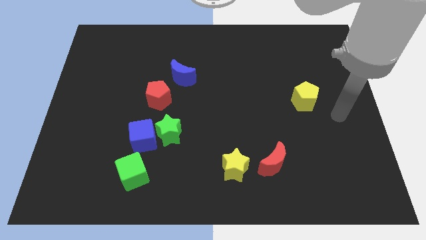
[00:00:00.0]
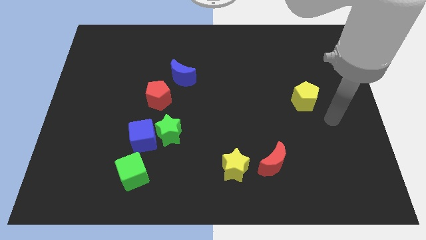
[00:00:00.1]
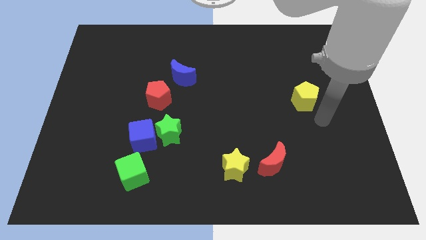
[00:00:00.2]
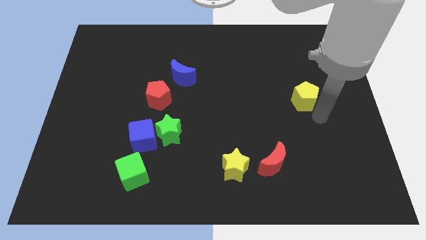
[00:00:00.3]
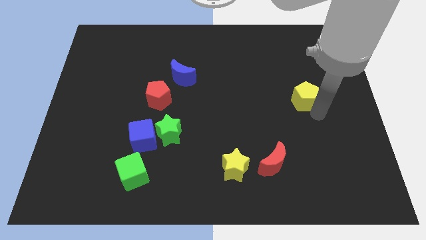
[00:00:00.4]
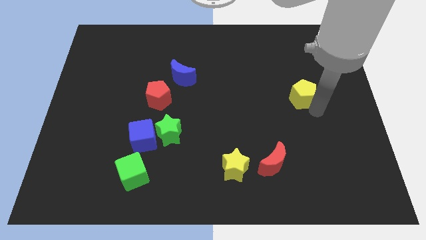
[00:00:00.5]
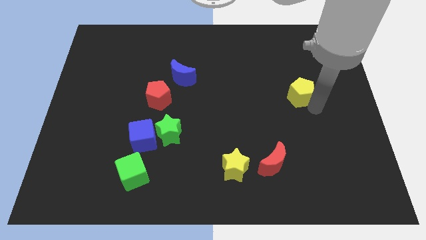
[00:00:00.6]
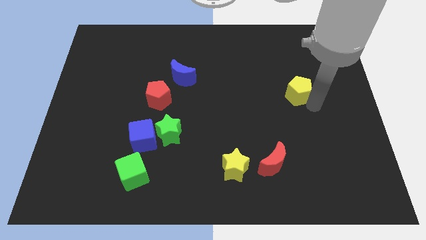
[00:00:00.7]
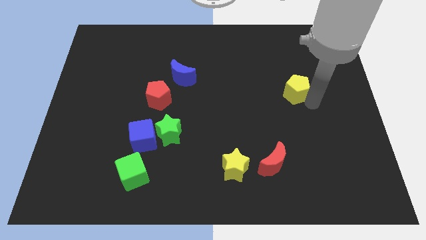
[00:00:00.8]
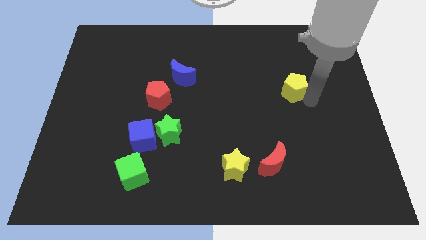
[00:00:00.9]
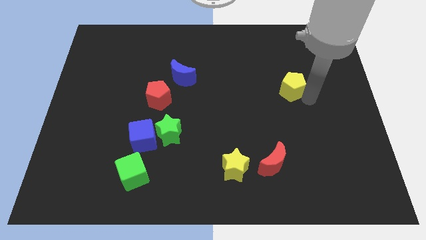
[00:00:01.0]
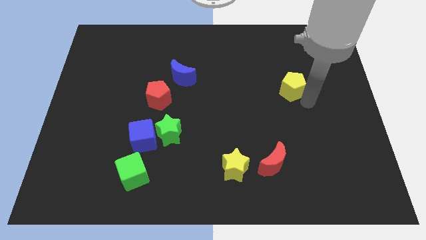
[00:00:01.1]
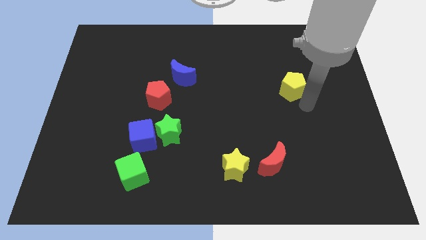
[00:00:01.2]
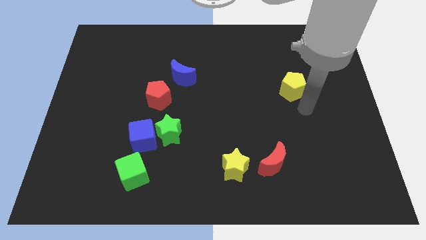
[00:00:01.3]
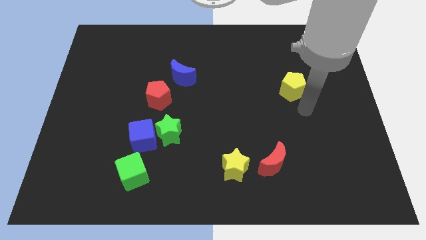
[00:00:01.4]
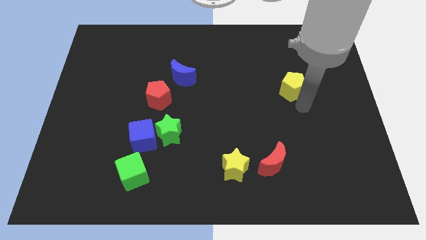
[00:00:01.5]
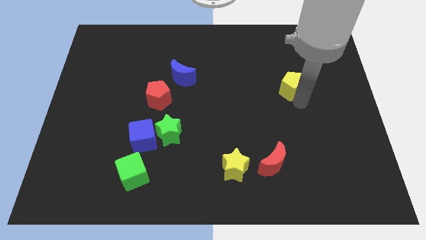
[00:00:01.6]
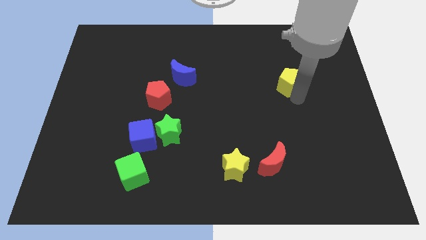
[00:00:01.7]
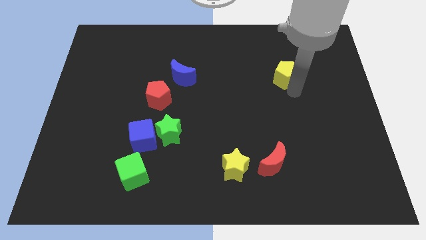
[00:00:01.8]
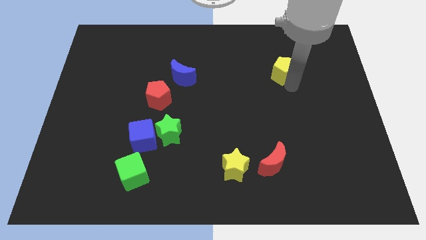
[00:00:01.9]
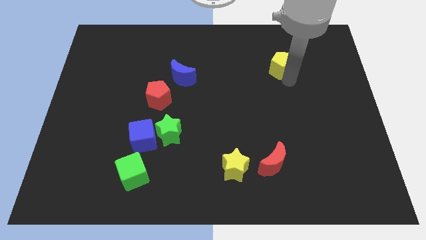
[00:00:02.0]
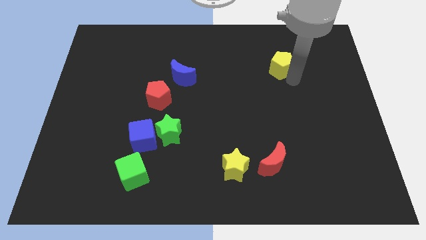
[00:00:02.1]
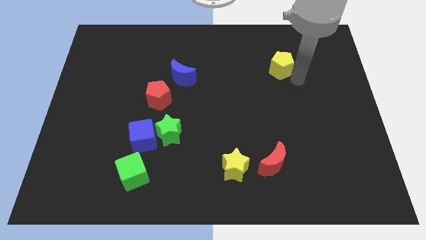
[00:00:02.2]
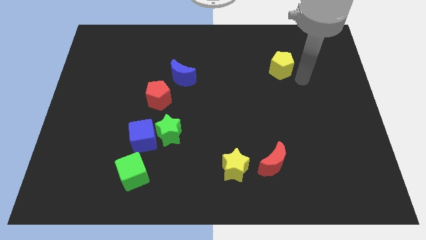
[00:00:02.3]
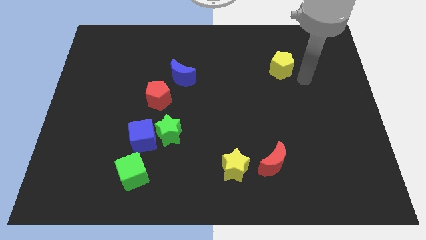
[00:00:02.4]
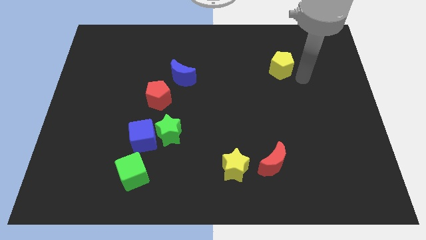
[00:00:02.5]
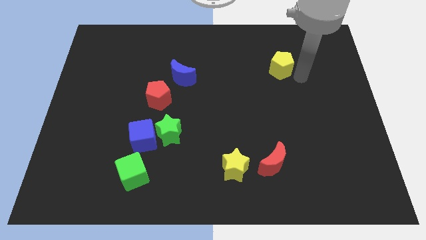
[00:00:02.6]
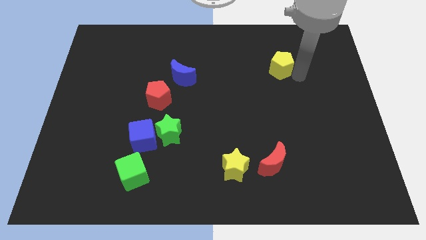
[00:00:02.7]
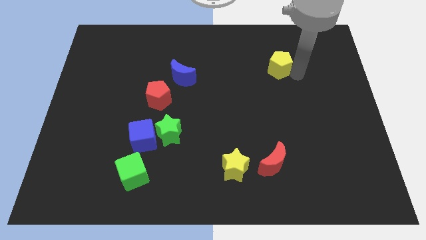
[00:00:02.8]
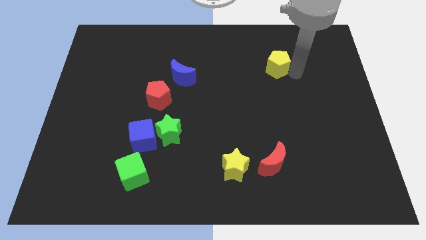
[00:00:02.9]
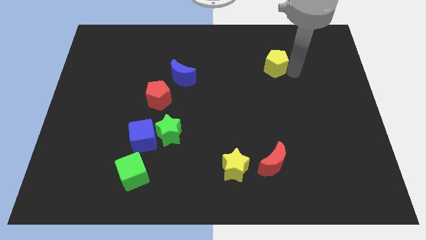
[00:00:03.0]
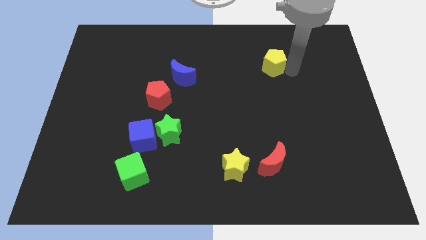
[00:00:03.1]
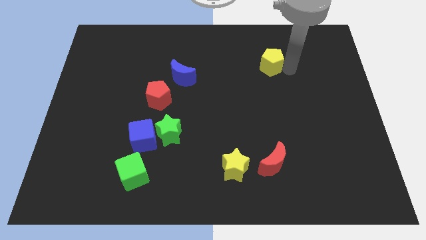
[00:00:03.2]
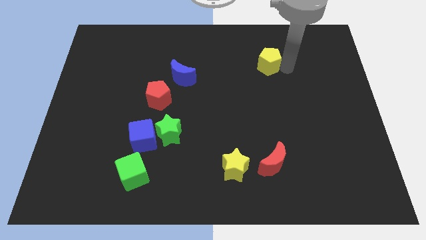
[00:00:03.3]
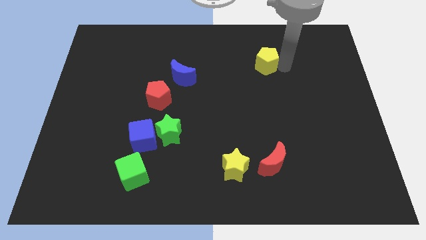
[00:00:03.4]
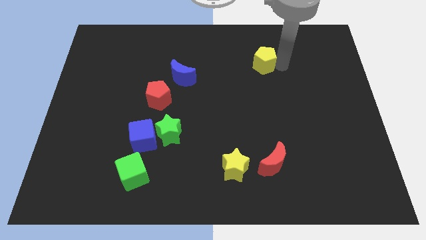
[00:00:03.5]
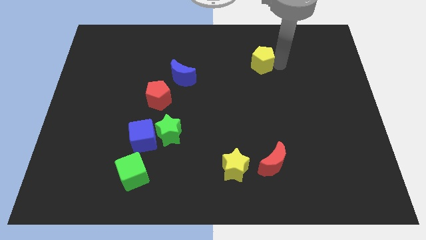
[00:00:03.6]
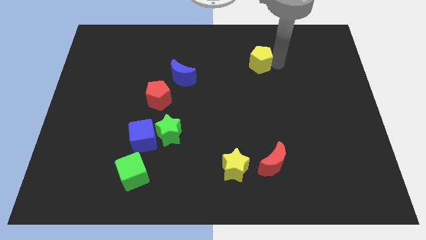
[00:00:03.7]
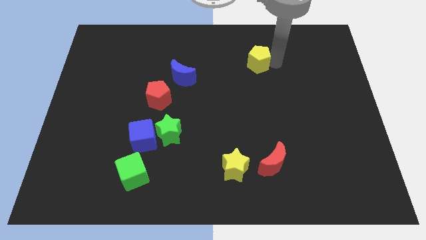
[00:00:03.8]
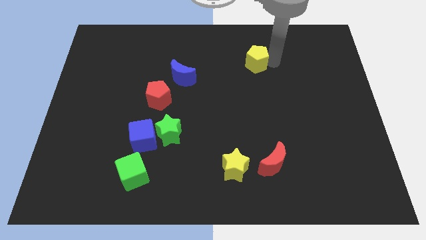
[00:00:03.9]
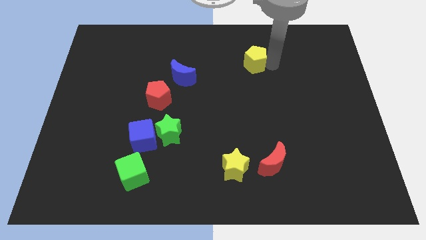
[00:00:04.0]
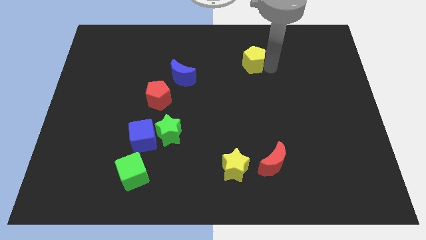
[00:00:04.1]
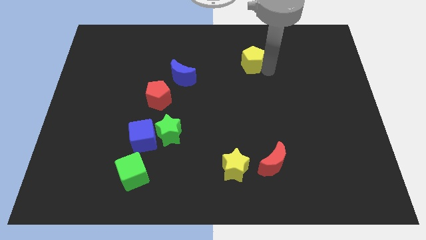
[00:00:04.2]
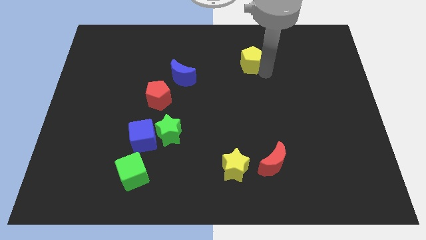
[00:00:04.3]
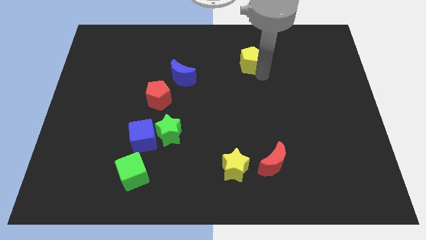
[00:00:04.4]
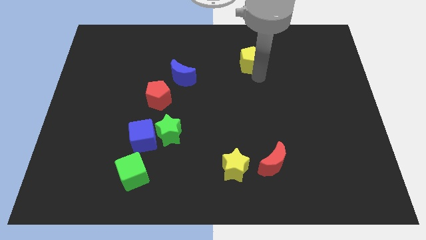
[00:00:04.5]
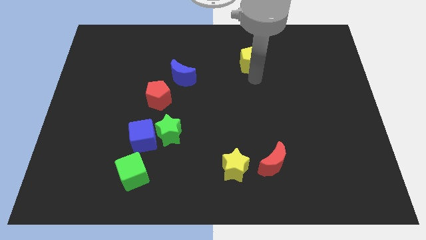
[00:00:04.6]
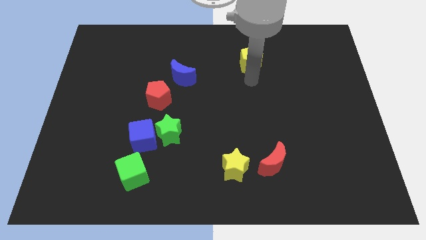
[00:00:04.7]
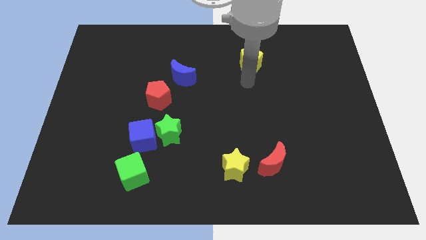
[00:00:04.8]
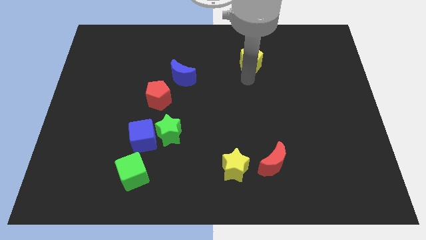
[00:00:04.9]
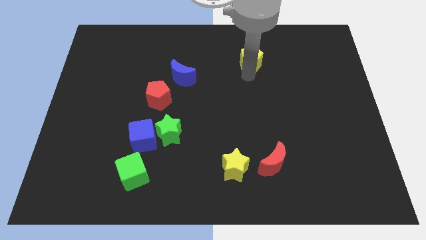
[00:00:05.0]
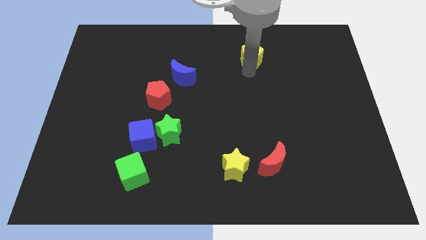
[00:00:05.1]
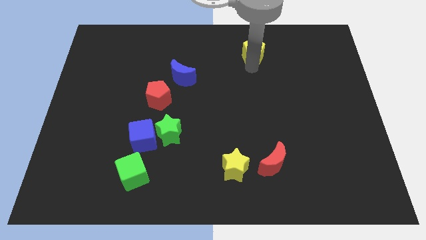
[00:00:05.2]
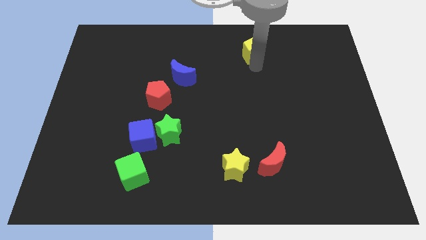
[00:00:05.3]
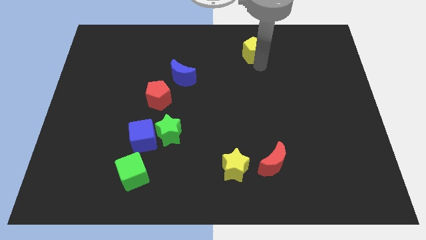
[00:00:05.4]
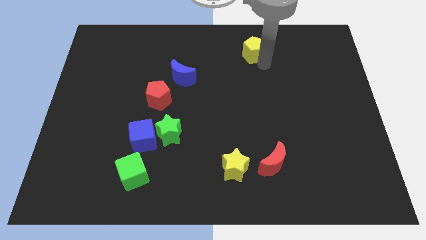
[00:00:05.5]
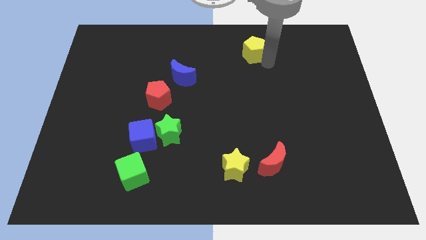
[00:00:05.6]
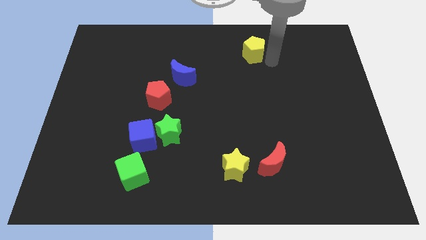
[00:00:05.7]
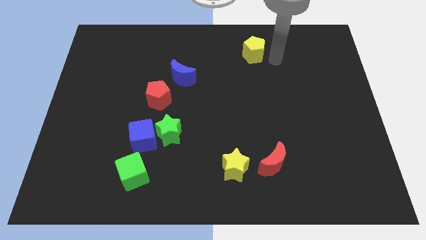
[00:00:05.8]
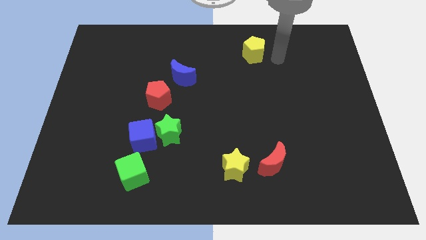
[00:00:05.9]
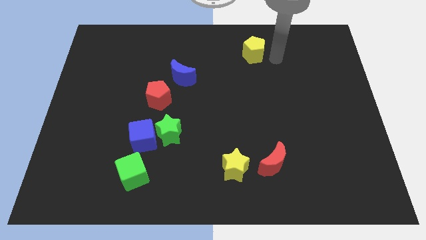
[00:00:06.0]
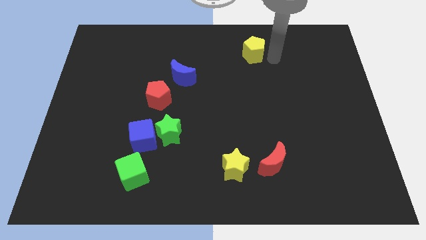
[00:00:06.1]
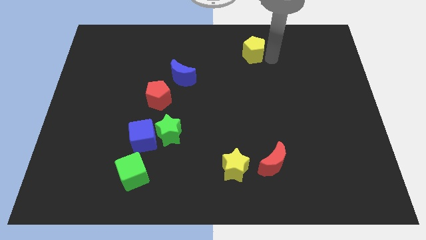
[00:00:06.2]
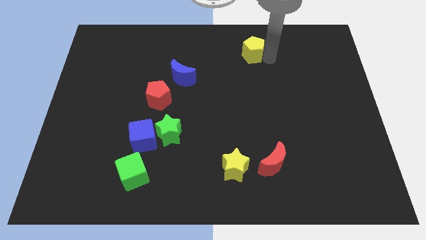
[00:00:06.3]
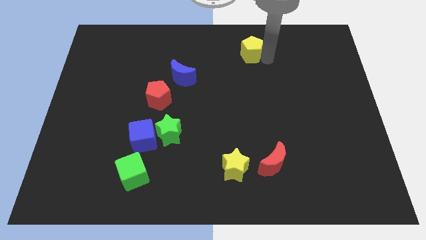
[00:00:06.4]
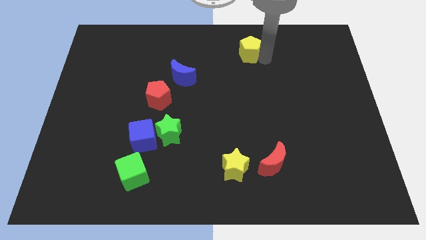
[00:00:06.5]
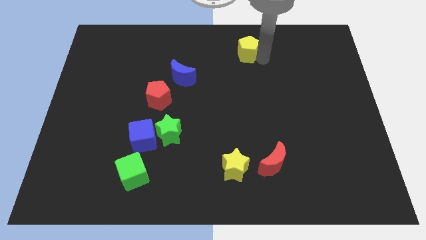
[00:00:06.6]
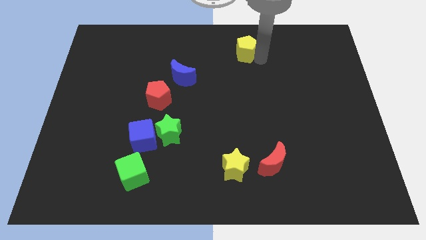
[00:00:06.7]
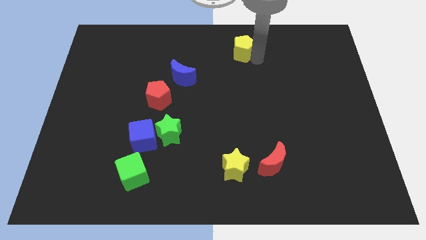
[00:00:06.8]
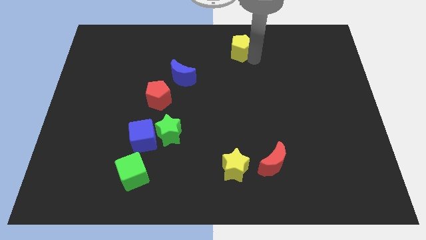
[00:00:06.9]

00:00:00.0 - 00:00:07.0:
slide the yellow pentagon to the top side
